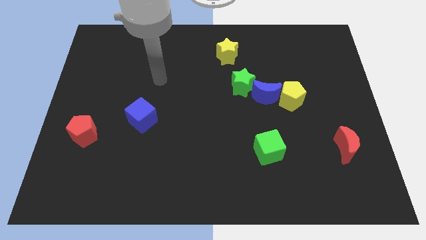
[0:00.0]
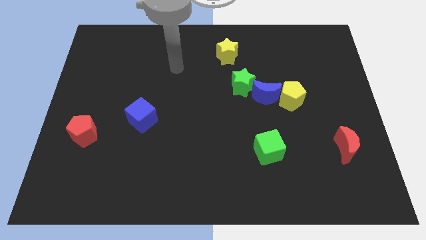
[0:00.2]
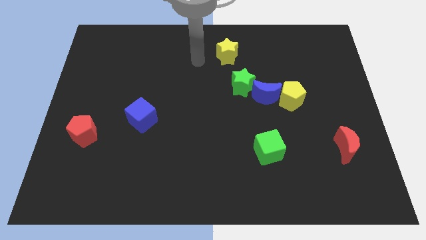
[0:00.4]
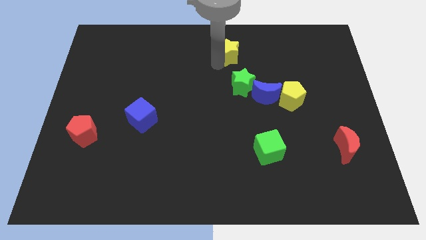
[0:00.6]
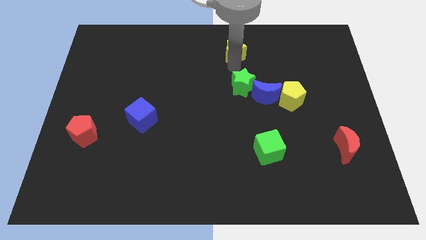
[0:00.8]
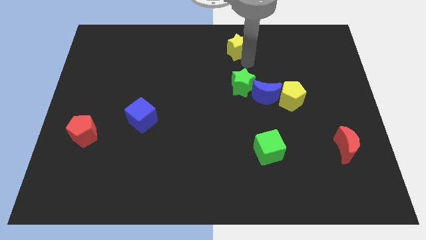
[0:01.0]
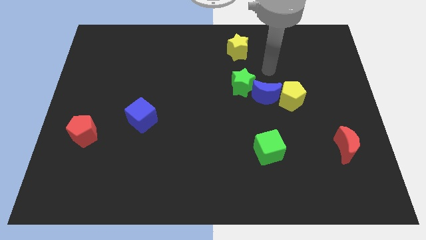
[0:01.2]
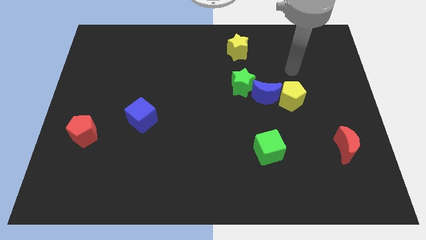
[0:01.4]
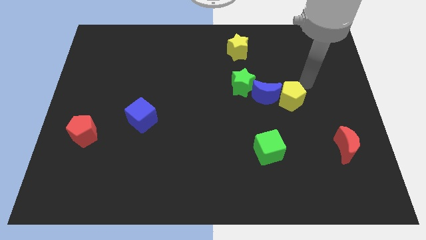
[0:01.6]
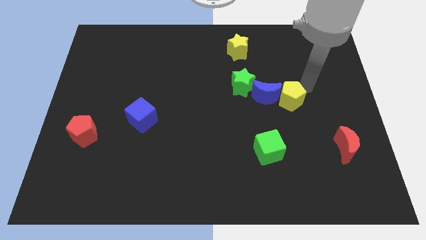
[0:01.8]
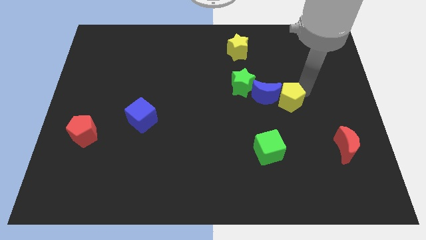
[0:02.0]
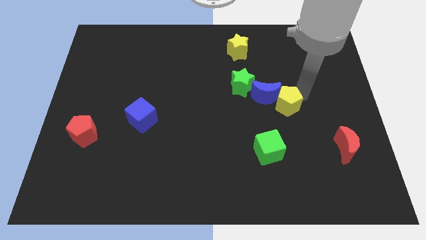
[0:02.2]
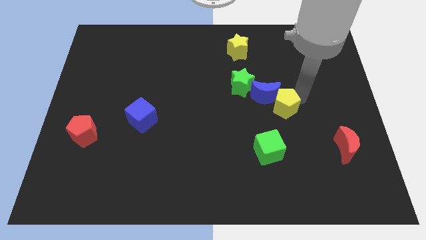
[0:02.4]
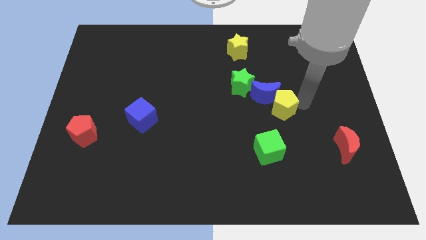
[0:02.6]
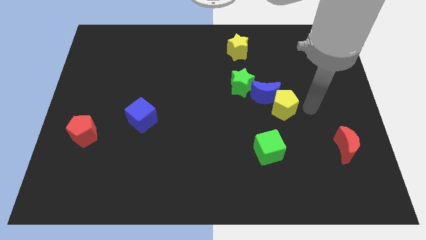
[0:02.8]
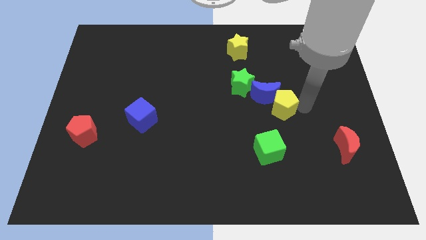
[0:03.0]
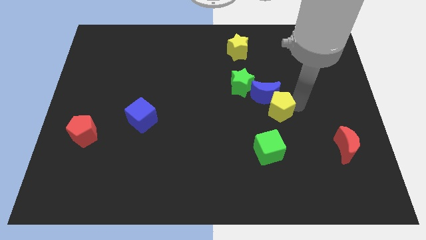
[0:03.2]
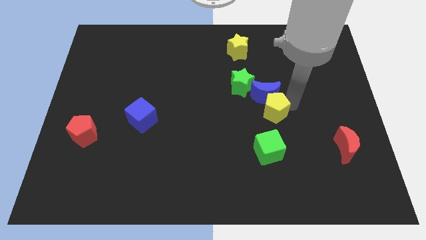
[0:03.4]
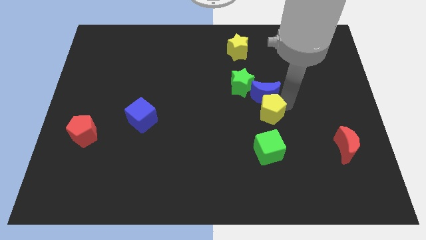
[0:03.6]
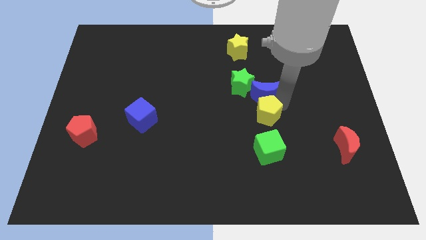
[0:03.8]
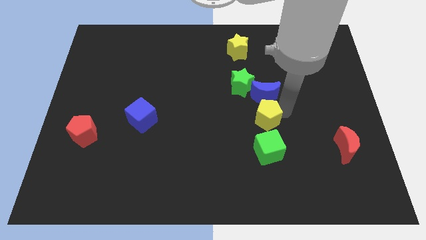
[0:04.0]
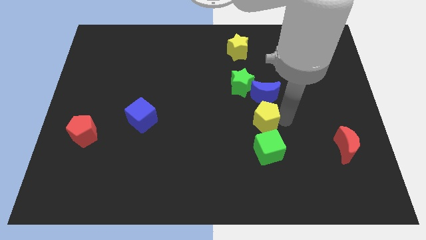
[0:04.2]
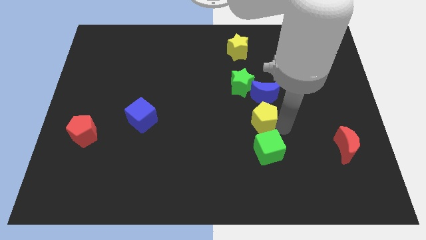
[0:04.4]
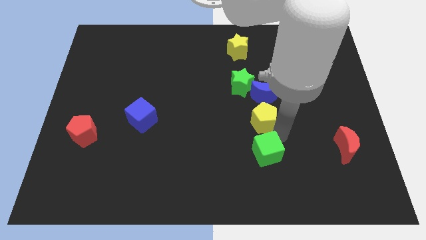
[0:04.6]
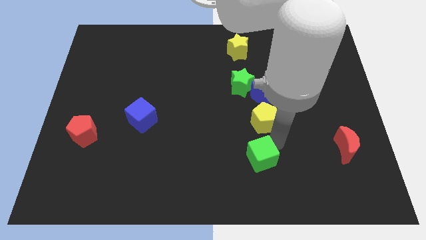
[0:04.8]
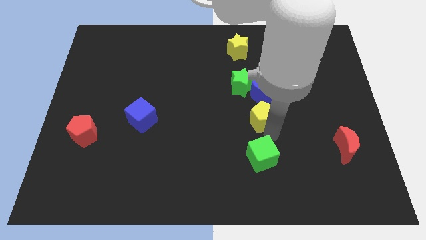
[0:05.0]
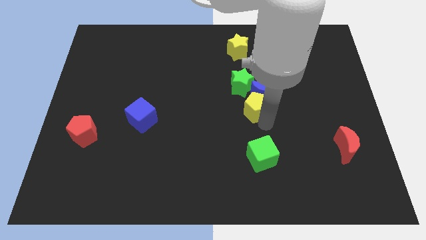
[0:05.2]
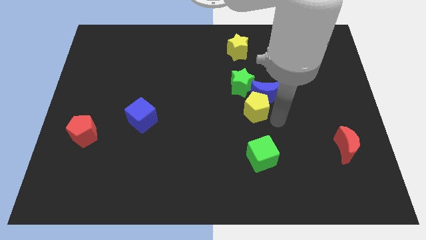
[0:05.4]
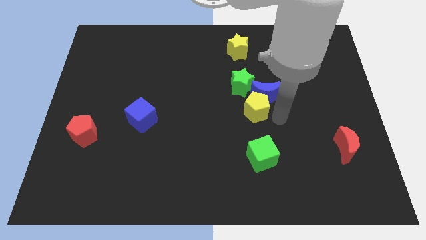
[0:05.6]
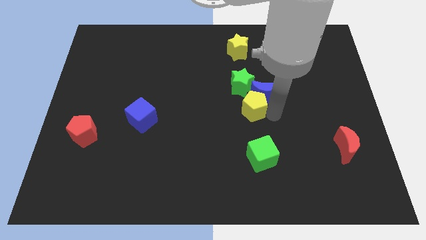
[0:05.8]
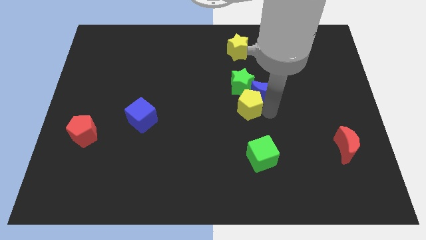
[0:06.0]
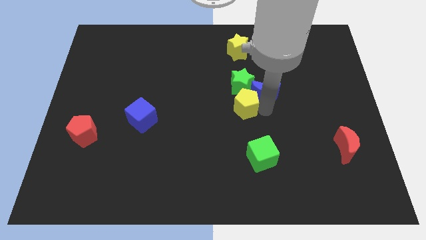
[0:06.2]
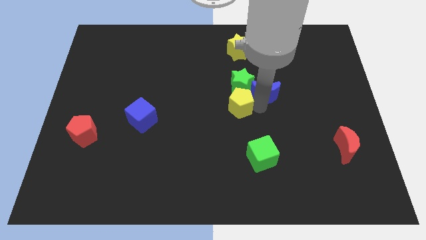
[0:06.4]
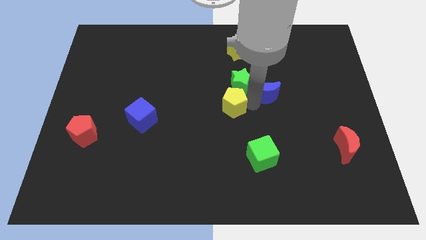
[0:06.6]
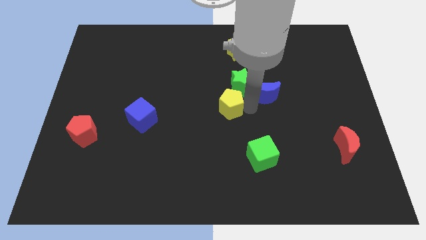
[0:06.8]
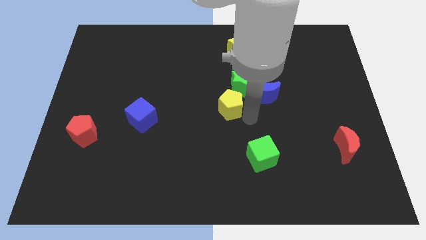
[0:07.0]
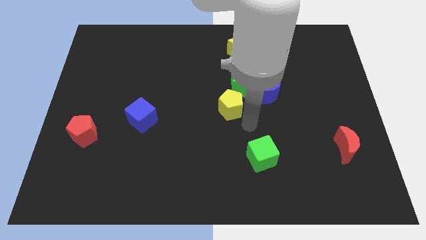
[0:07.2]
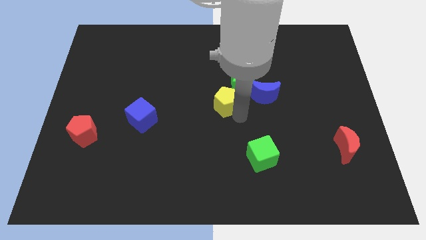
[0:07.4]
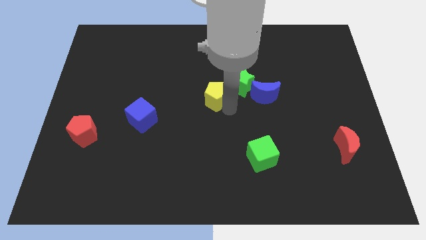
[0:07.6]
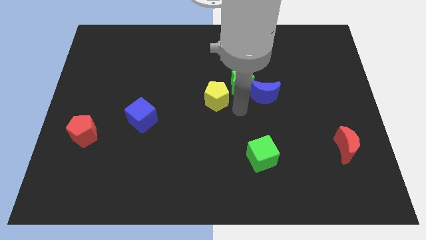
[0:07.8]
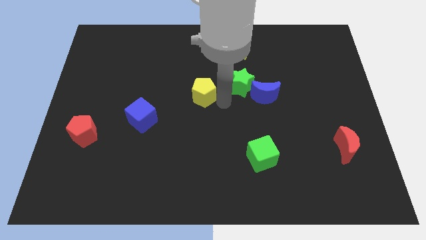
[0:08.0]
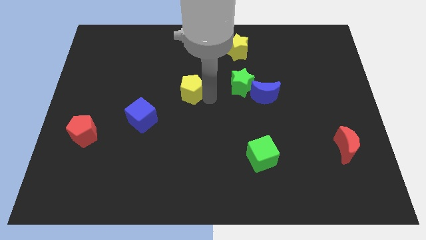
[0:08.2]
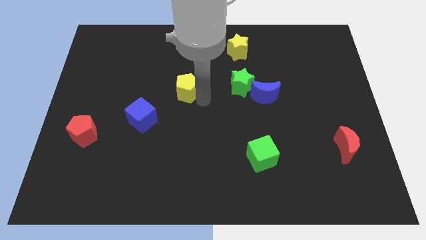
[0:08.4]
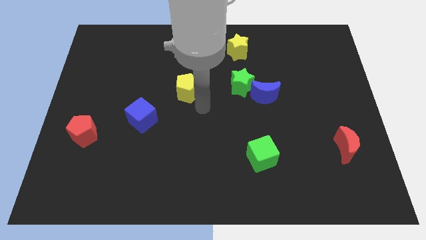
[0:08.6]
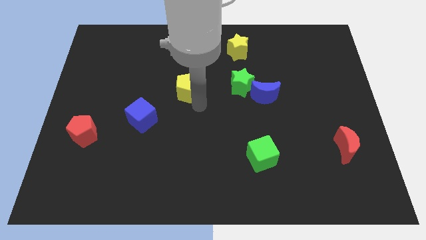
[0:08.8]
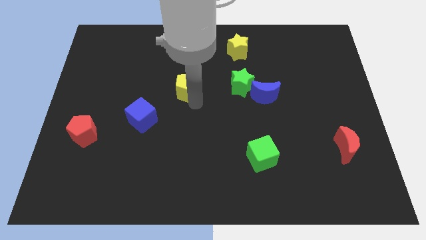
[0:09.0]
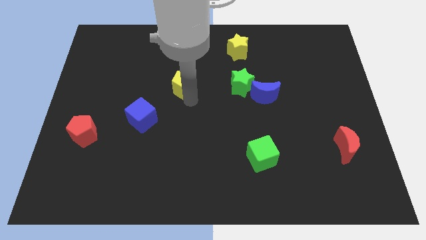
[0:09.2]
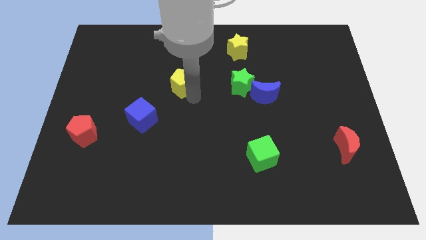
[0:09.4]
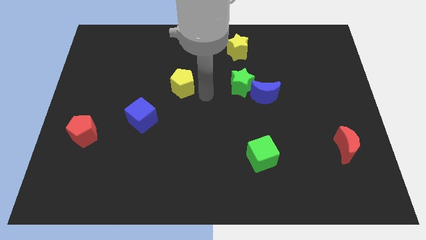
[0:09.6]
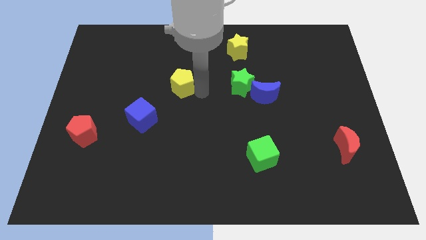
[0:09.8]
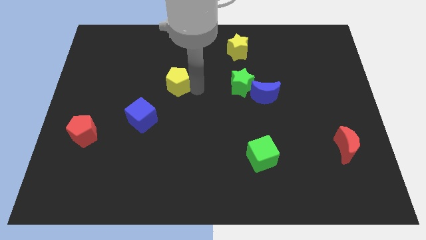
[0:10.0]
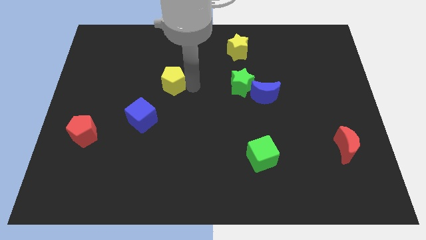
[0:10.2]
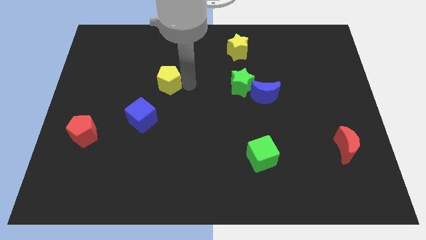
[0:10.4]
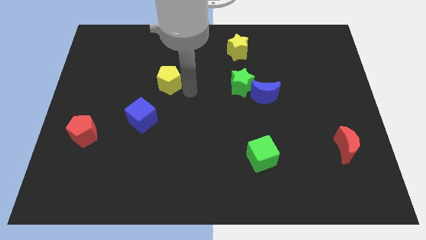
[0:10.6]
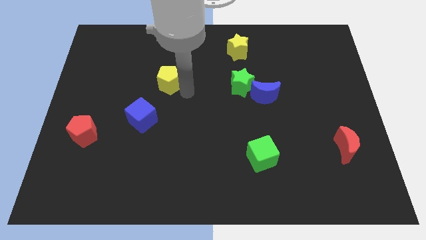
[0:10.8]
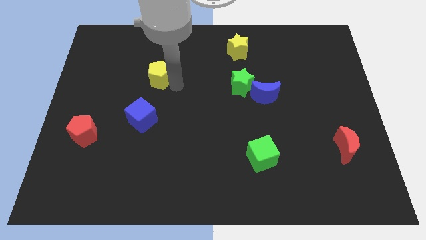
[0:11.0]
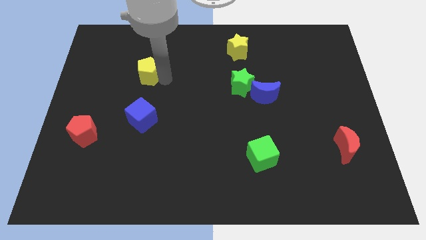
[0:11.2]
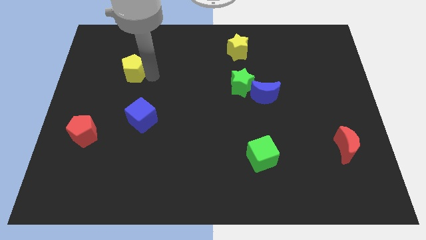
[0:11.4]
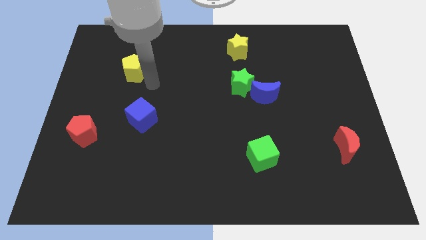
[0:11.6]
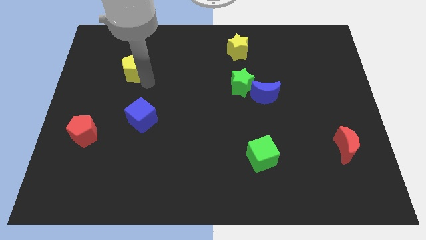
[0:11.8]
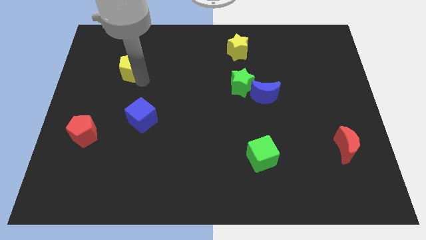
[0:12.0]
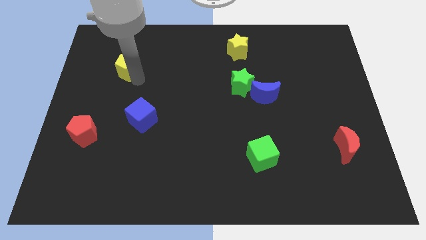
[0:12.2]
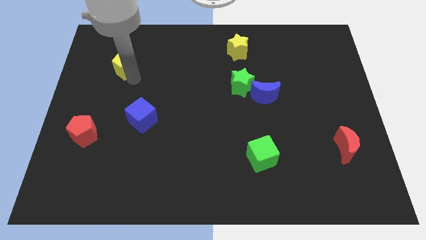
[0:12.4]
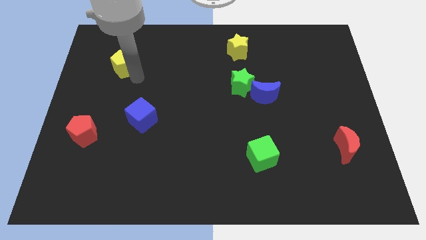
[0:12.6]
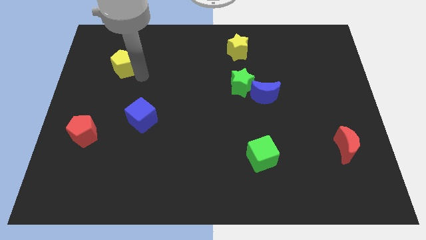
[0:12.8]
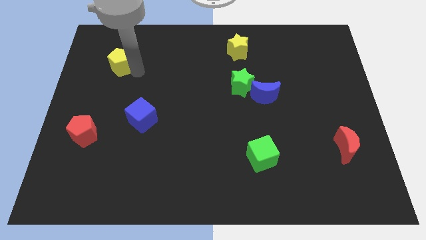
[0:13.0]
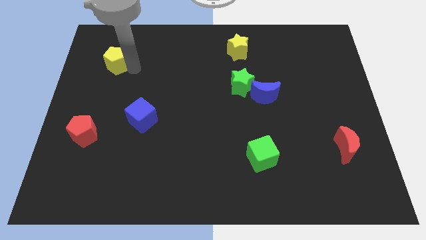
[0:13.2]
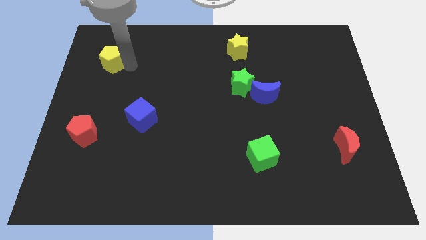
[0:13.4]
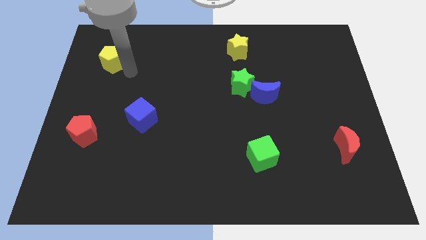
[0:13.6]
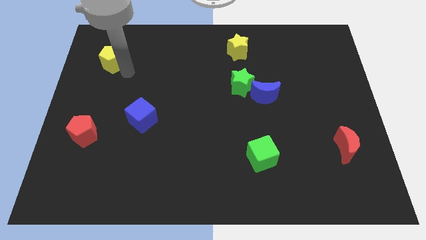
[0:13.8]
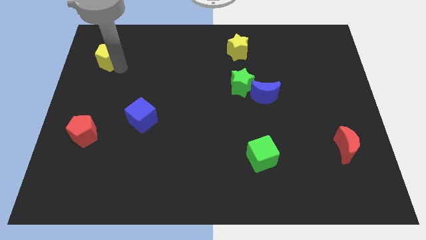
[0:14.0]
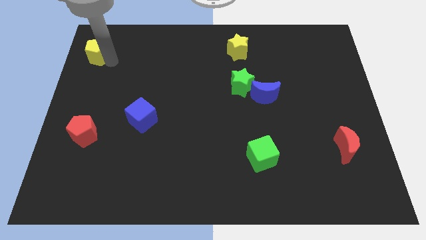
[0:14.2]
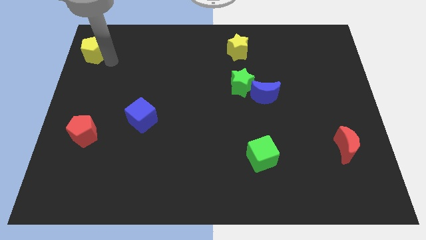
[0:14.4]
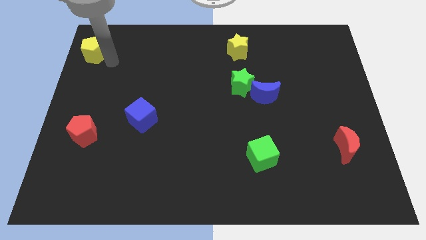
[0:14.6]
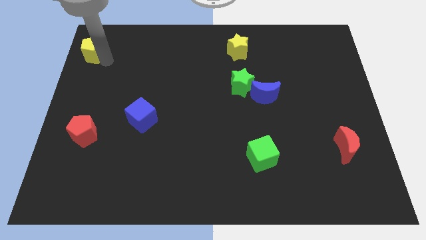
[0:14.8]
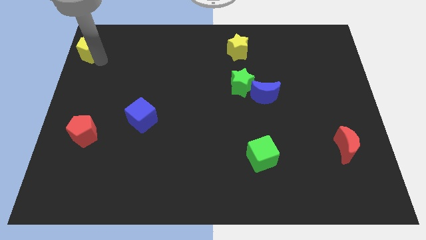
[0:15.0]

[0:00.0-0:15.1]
slide the yellow pentagon to the top left of the board
